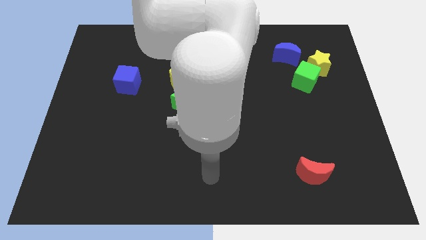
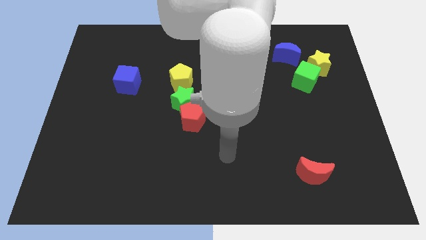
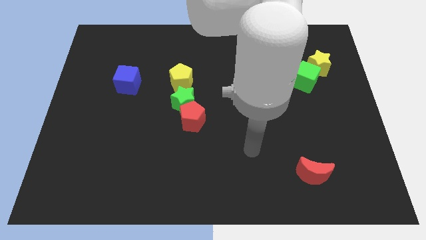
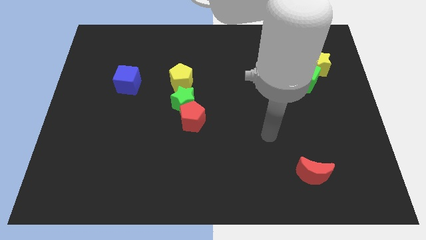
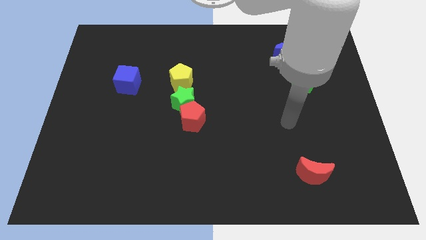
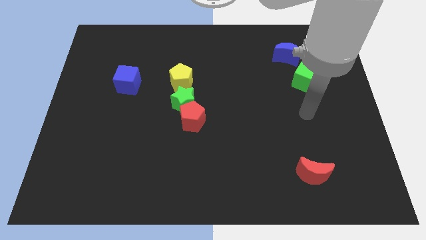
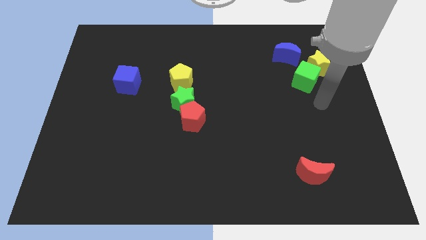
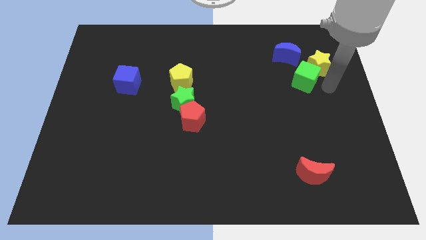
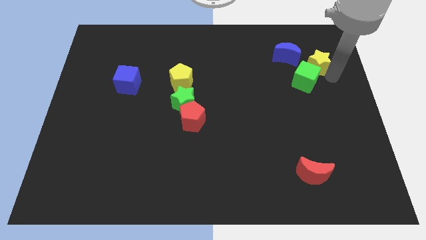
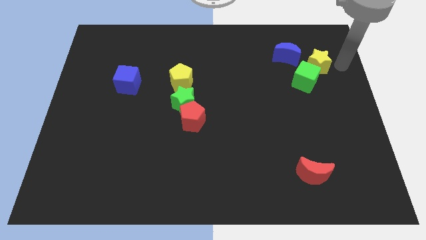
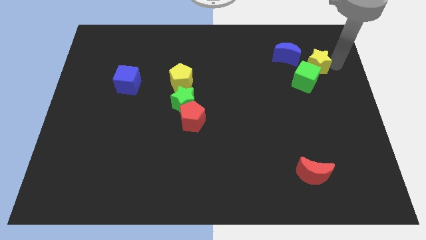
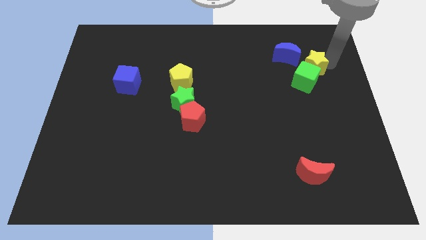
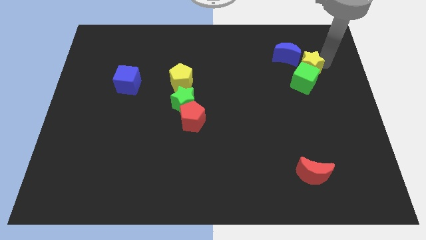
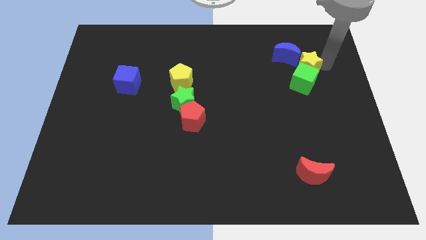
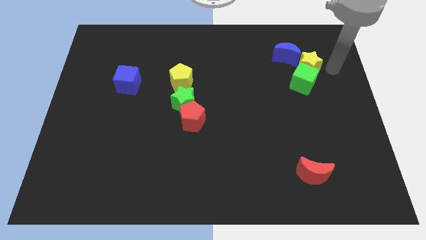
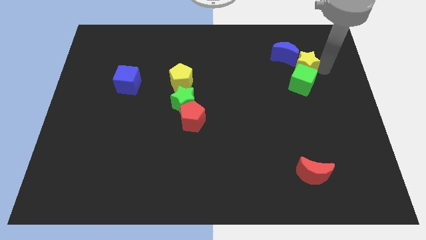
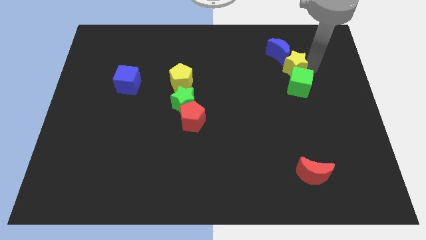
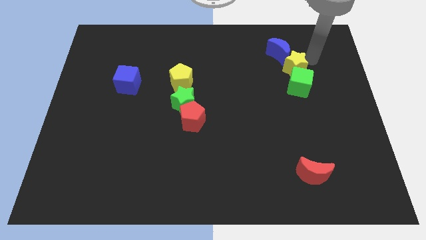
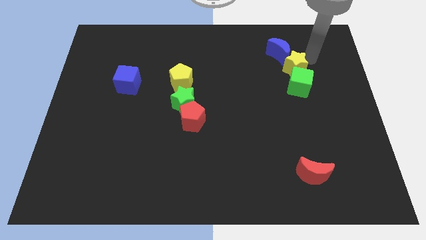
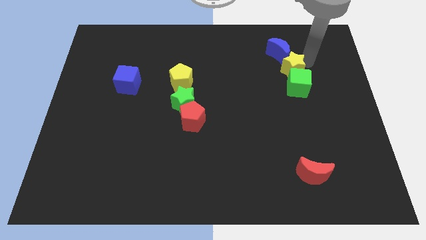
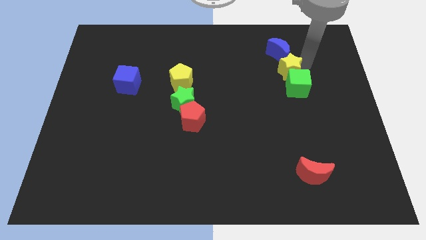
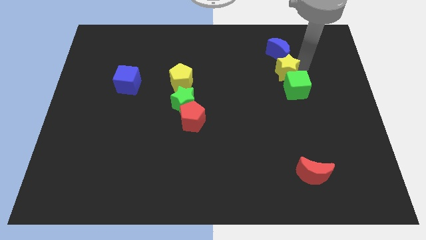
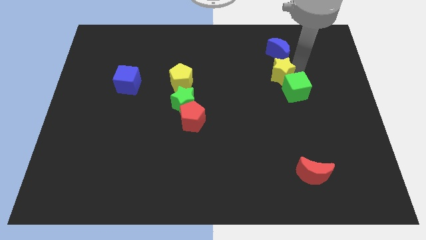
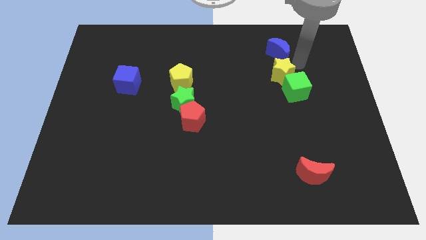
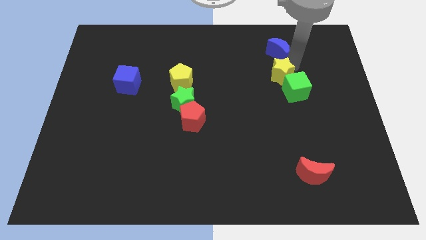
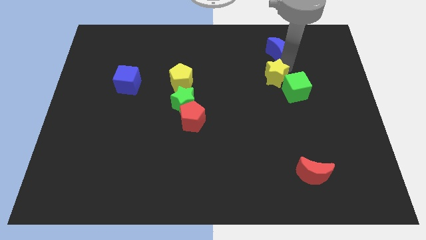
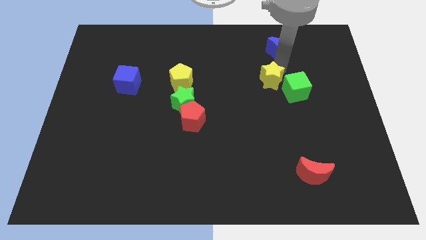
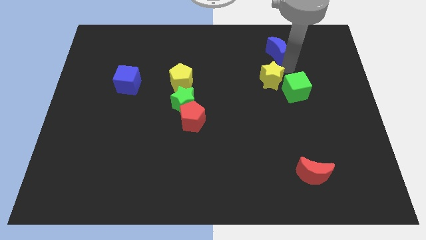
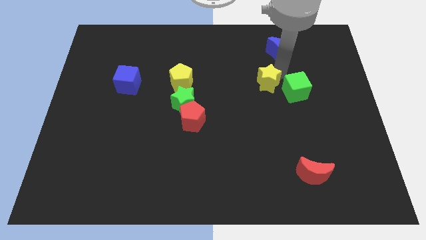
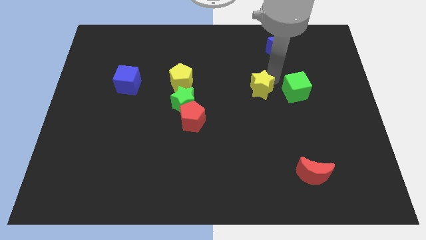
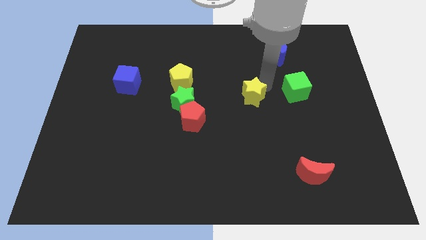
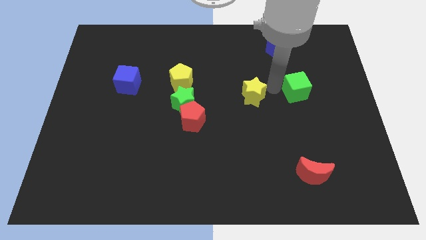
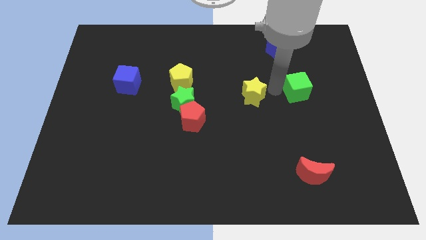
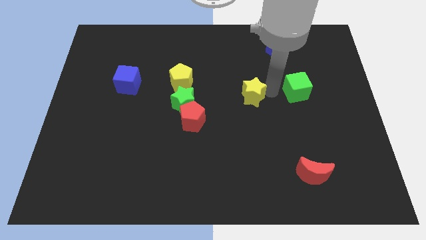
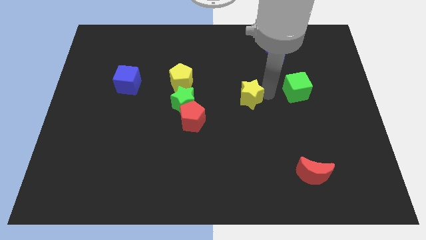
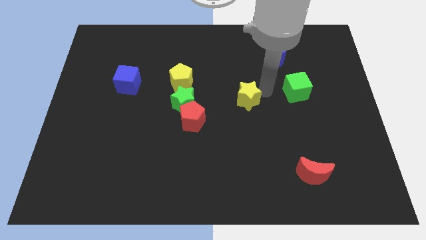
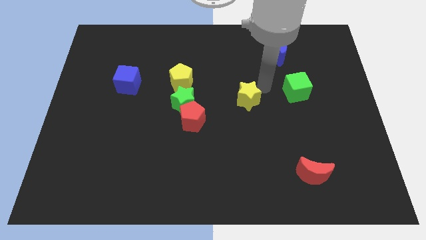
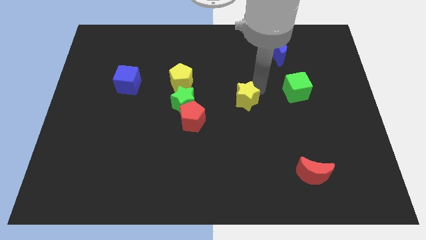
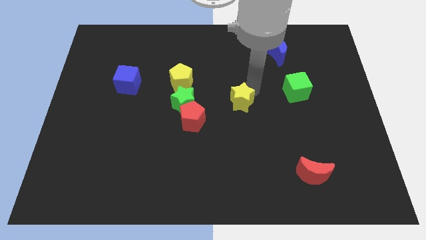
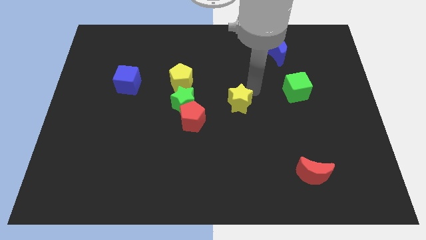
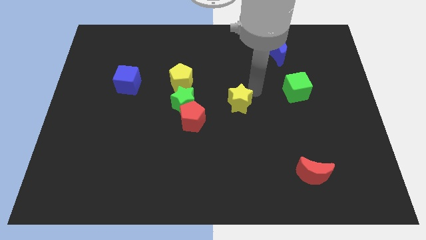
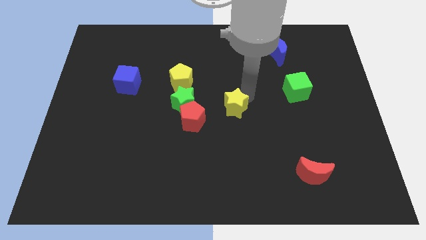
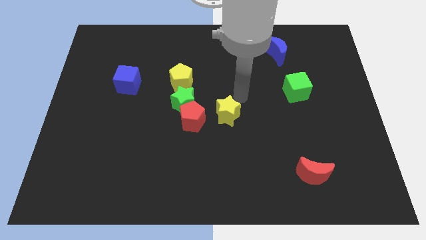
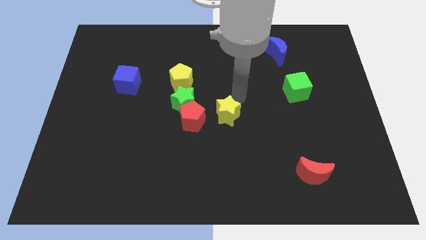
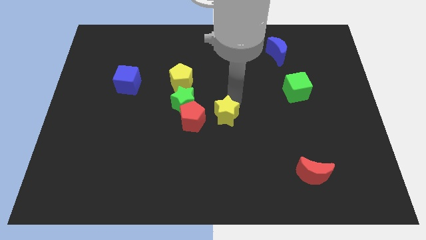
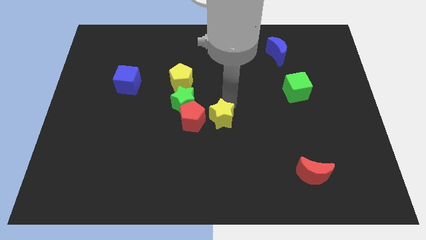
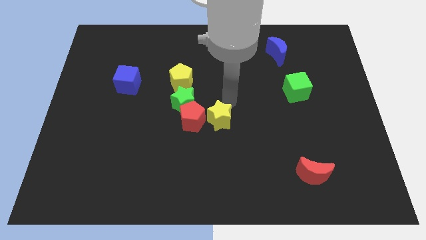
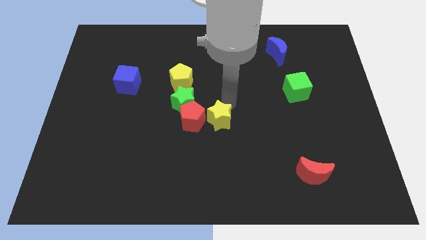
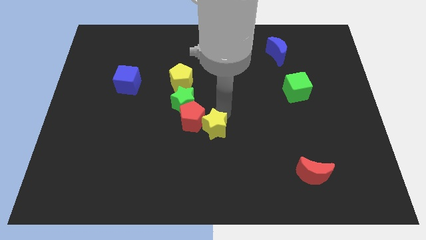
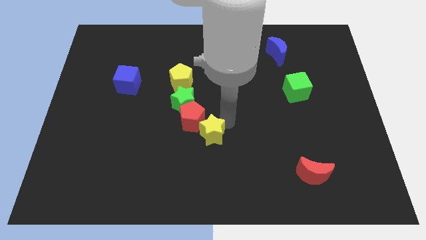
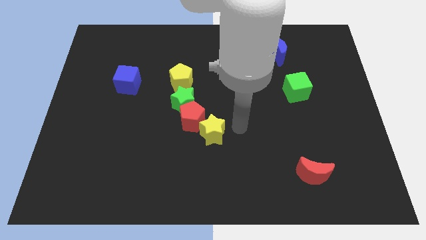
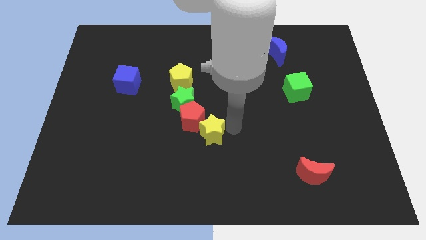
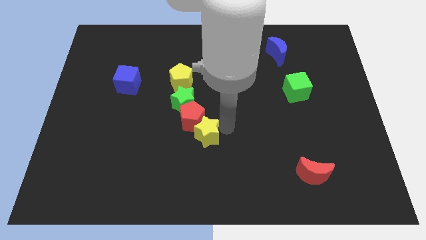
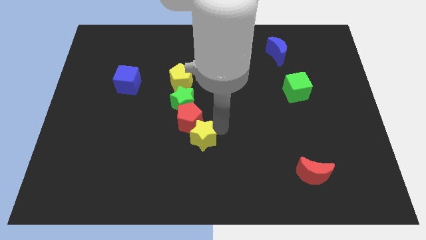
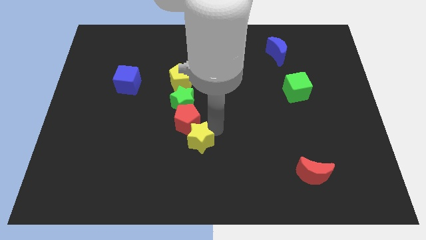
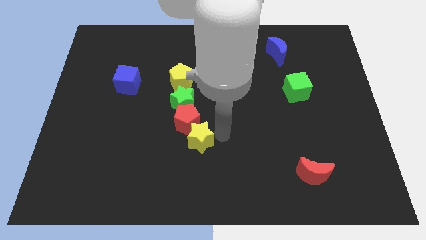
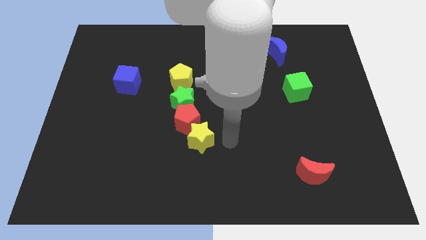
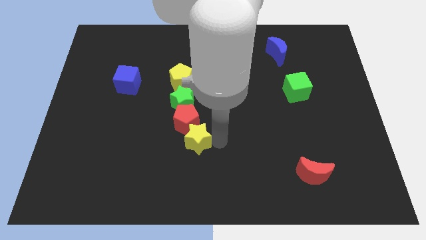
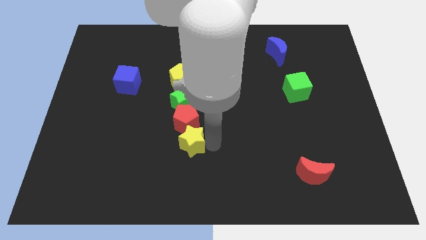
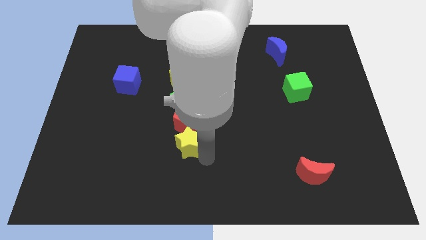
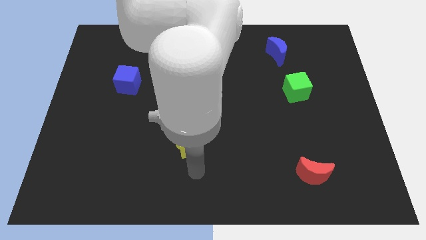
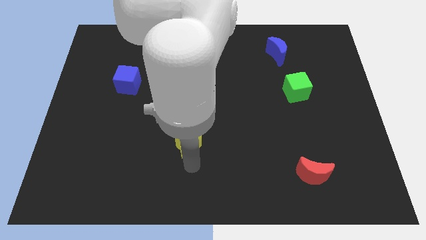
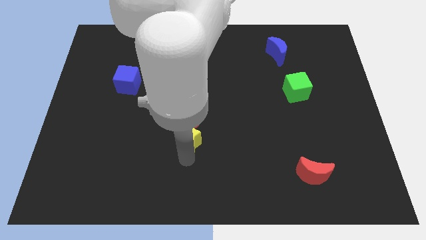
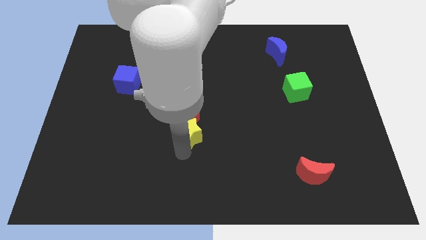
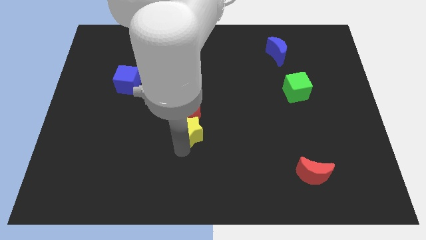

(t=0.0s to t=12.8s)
slide the yellow star to the bottom of the yellow pentagon

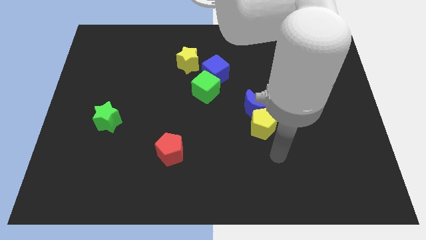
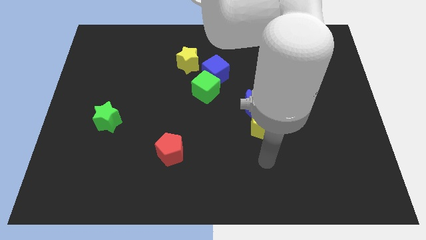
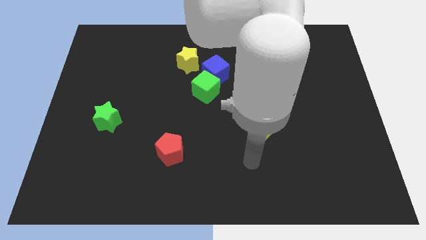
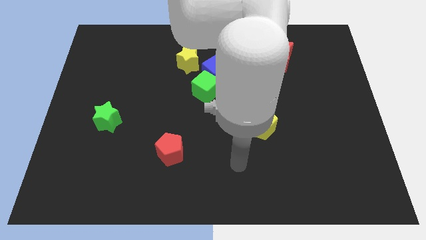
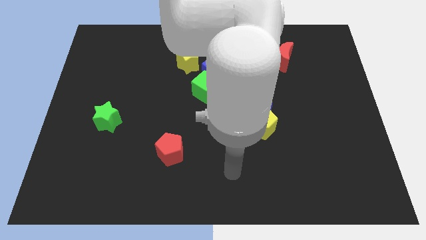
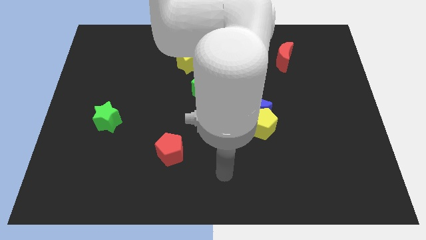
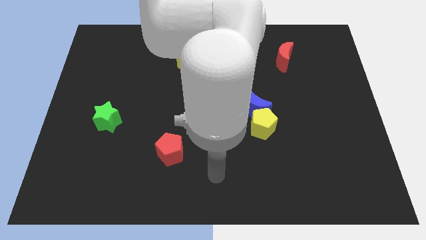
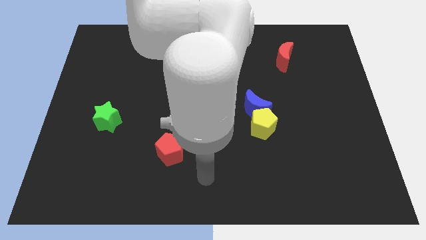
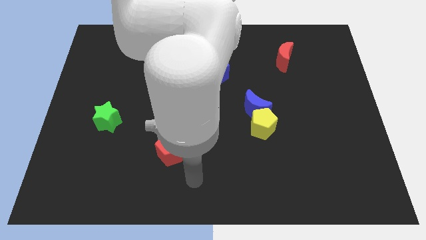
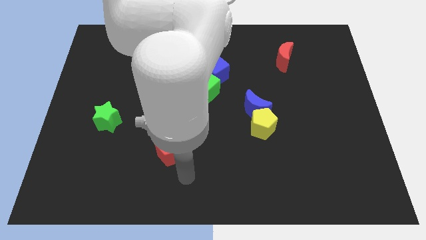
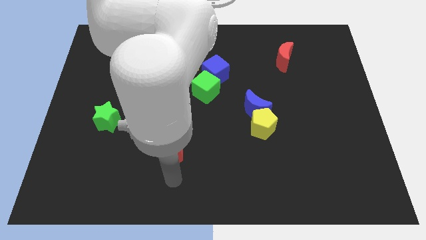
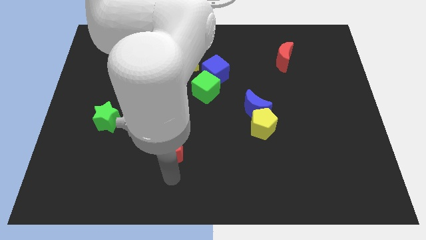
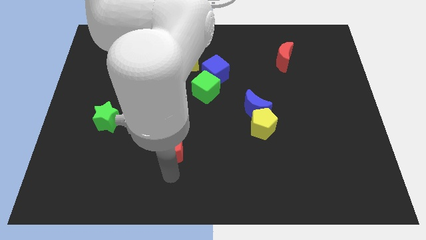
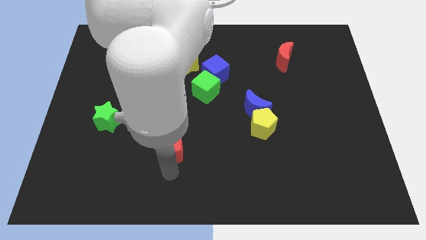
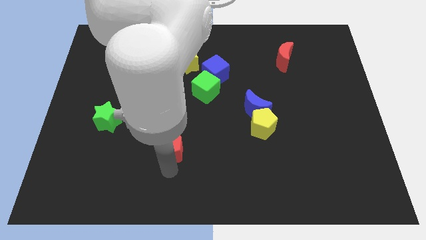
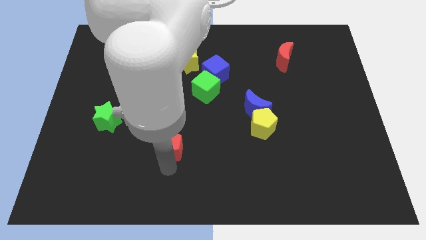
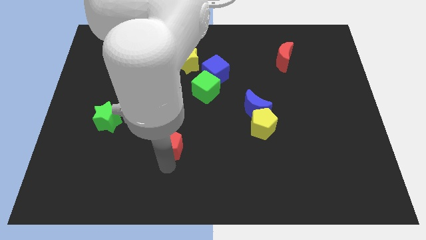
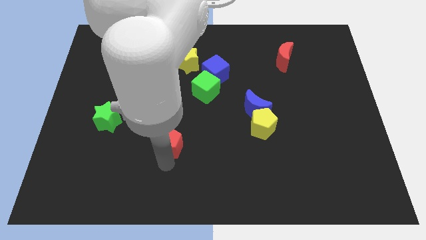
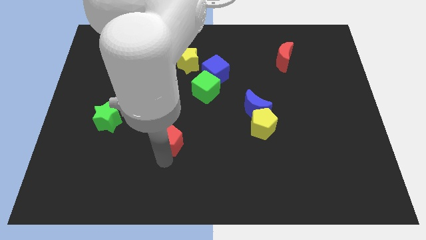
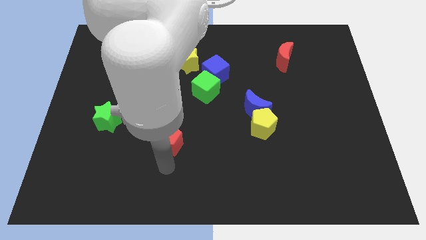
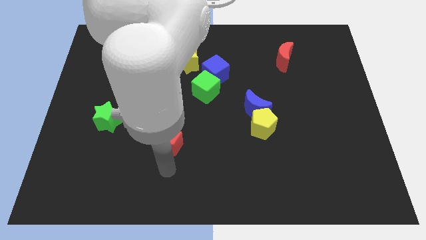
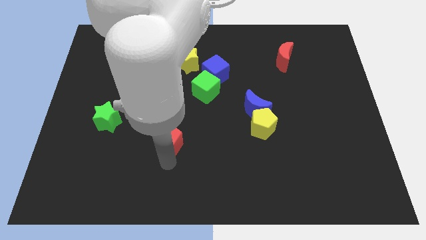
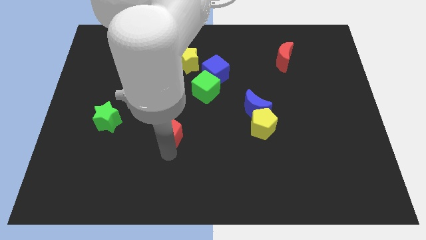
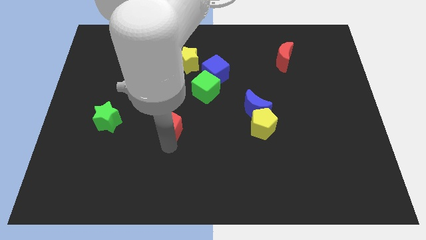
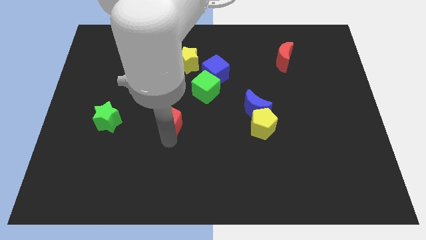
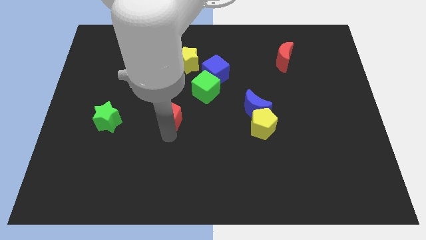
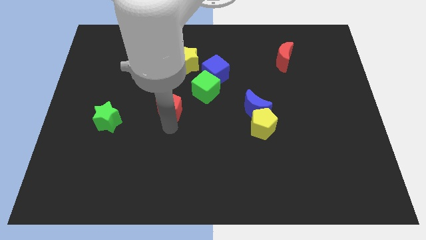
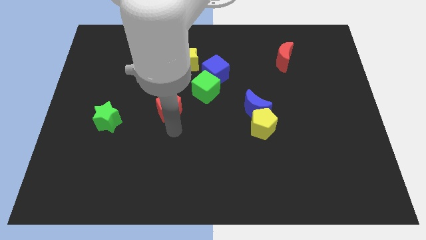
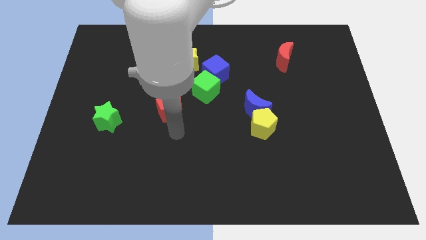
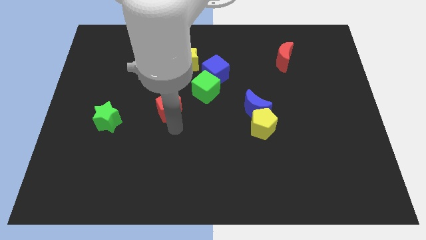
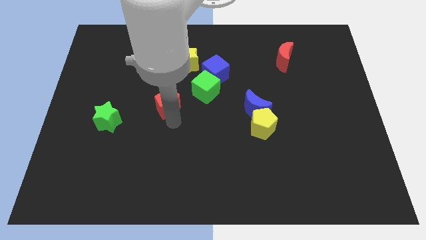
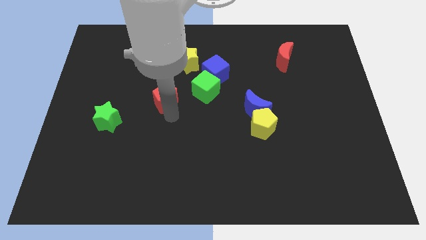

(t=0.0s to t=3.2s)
push the red pentagon to the left side of the green cube
